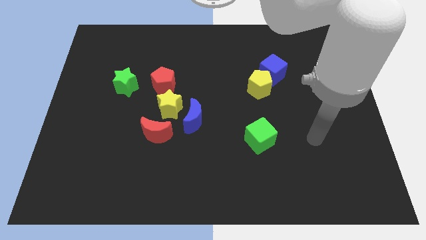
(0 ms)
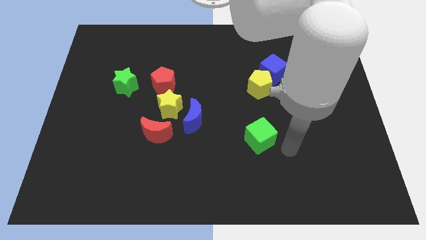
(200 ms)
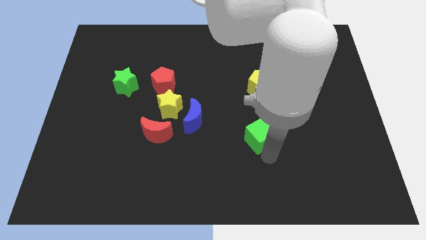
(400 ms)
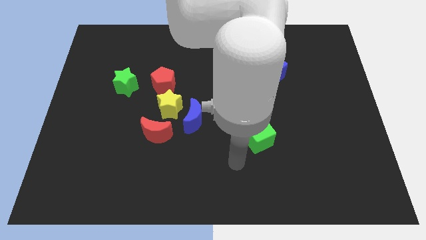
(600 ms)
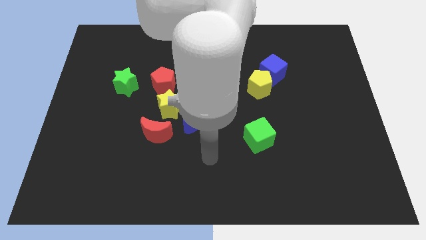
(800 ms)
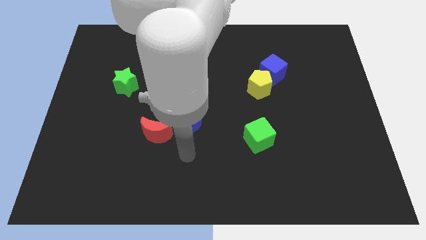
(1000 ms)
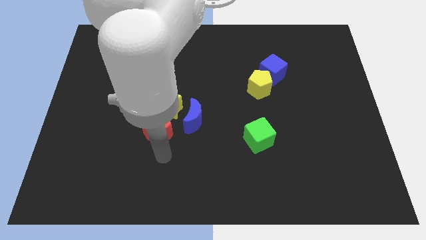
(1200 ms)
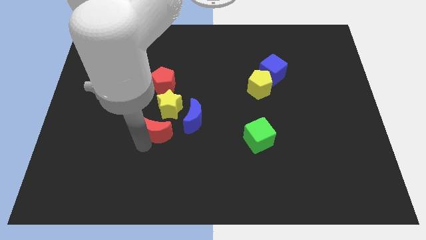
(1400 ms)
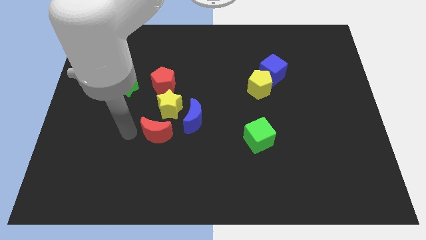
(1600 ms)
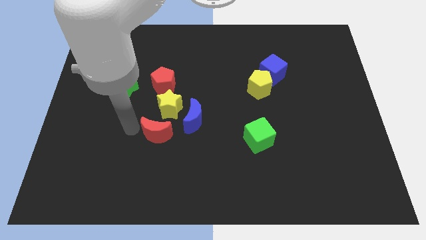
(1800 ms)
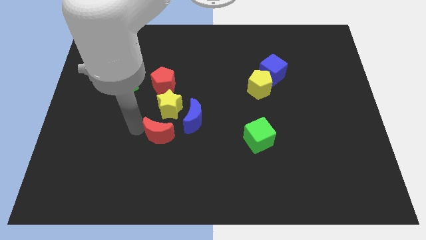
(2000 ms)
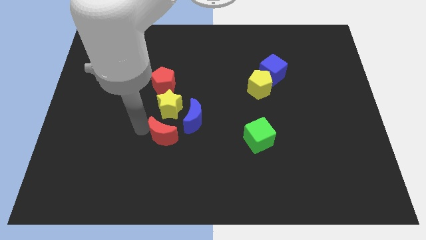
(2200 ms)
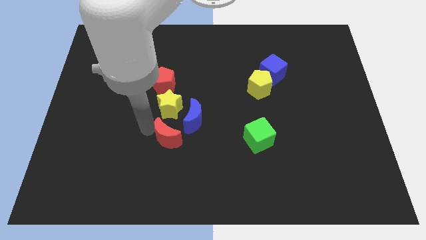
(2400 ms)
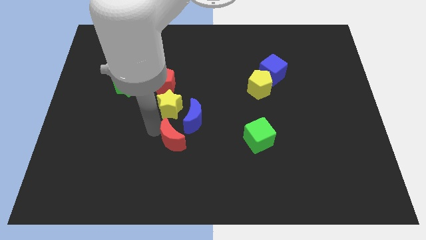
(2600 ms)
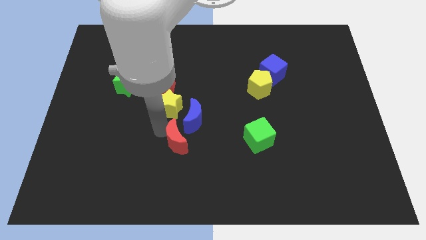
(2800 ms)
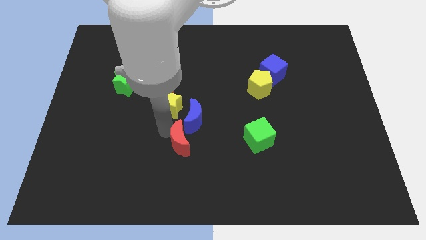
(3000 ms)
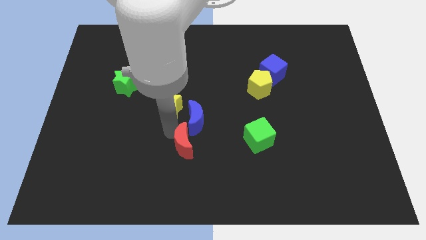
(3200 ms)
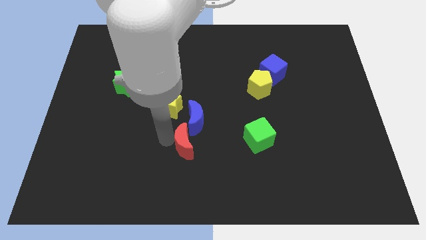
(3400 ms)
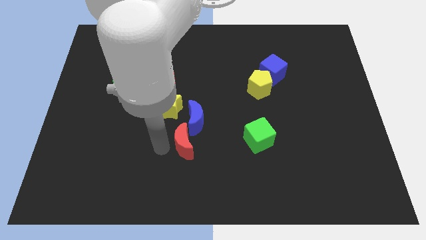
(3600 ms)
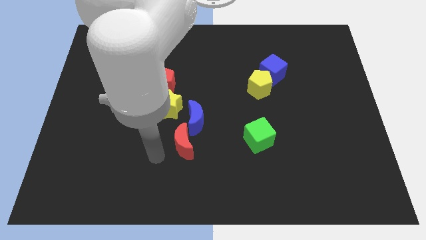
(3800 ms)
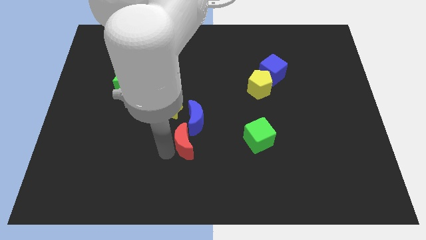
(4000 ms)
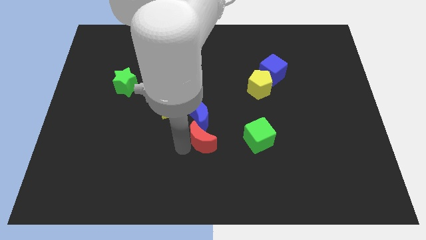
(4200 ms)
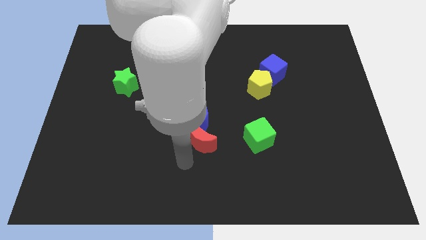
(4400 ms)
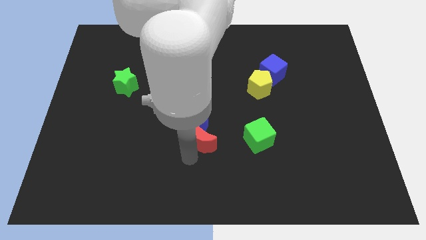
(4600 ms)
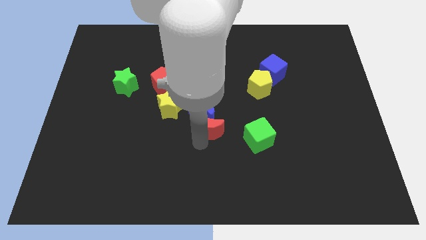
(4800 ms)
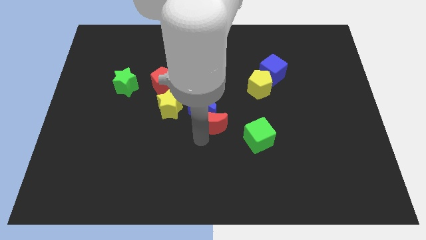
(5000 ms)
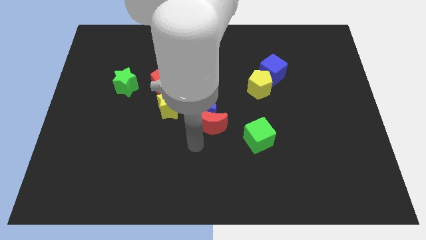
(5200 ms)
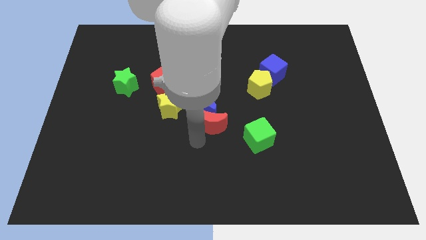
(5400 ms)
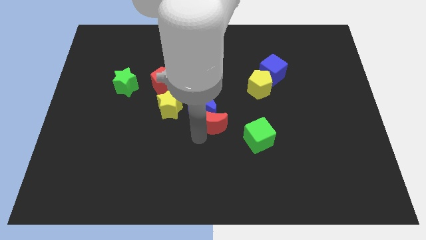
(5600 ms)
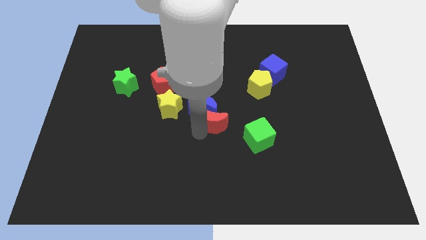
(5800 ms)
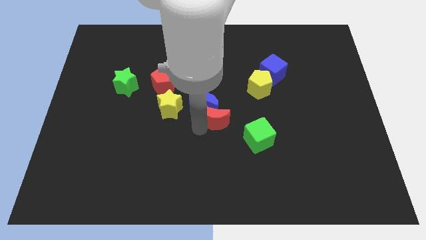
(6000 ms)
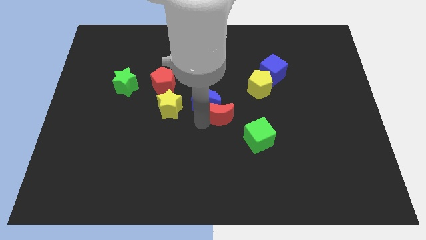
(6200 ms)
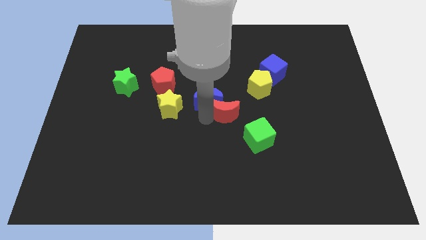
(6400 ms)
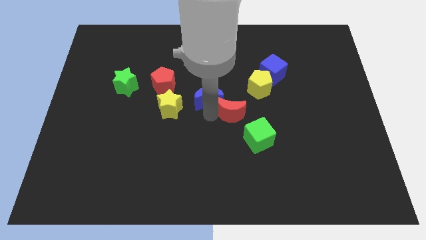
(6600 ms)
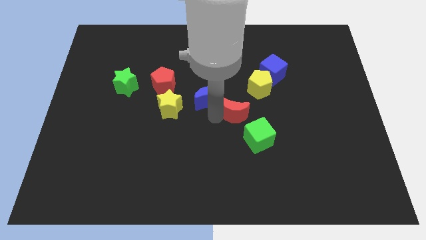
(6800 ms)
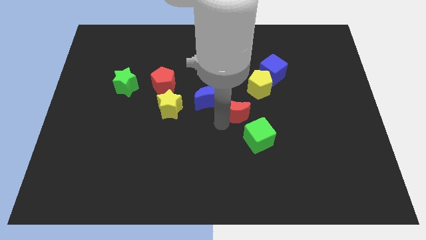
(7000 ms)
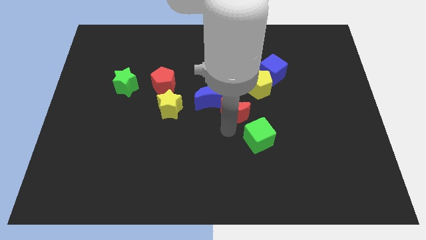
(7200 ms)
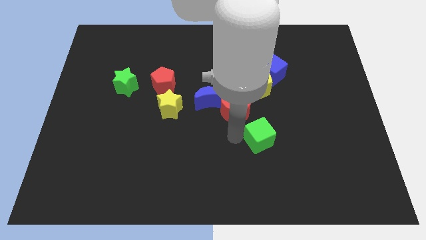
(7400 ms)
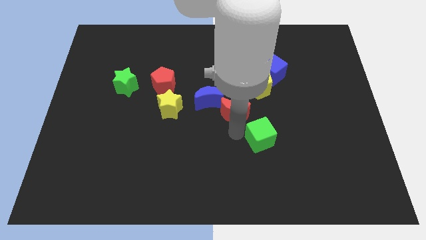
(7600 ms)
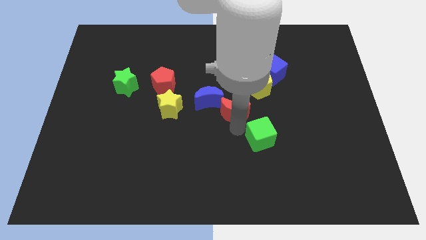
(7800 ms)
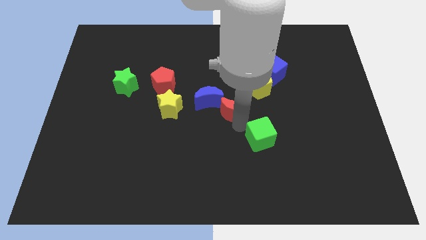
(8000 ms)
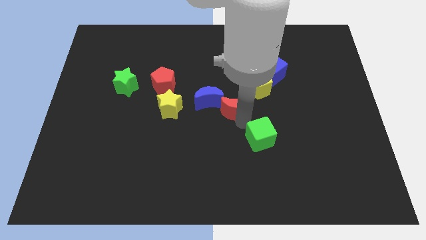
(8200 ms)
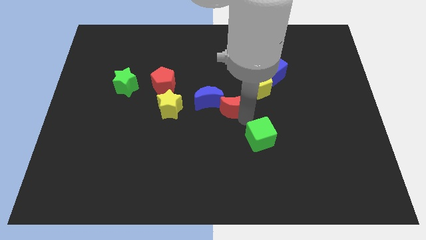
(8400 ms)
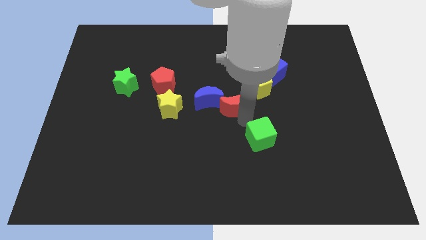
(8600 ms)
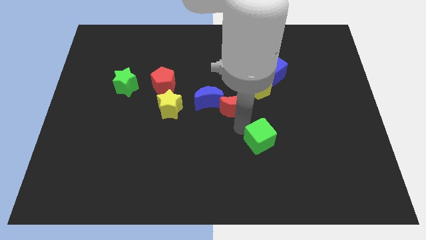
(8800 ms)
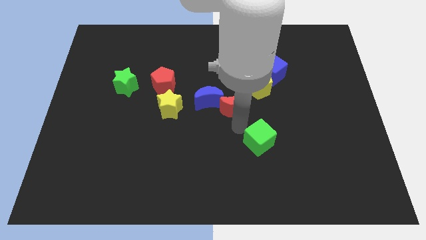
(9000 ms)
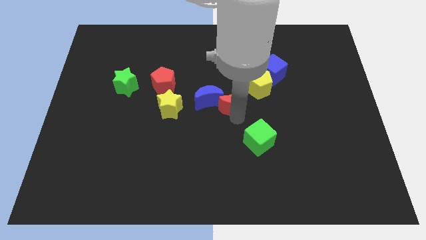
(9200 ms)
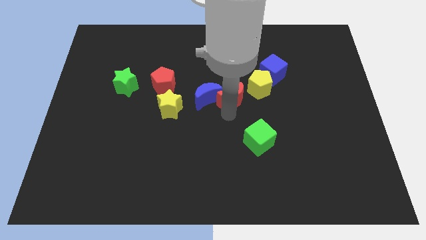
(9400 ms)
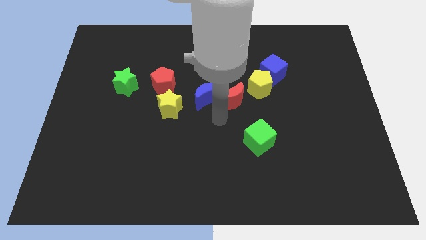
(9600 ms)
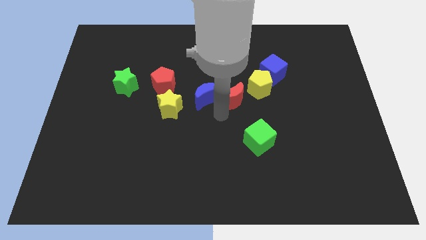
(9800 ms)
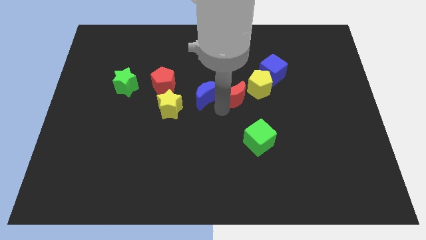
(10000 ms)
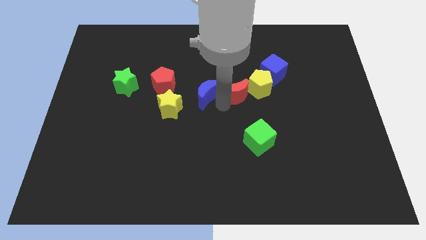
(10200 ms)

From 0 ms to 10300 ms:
push the red moon diagonally up and right

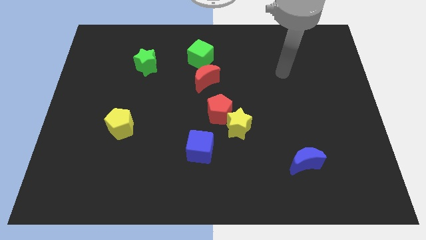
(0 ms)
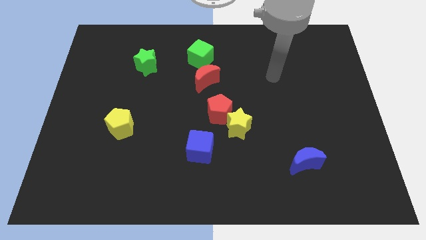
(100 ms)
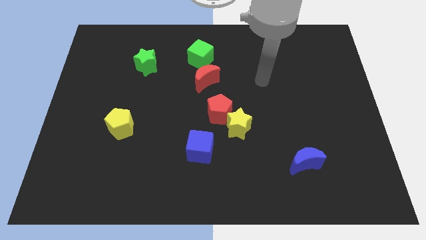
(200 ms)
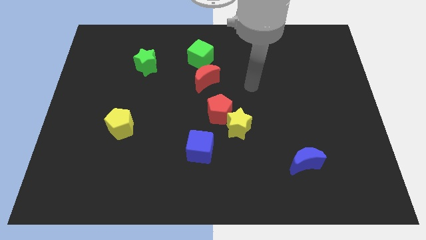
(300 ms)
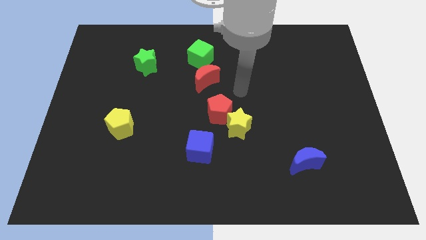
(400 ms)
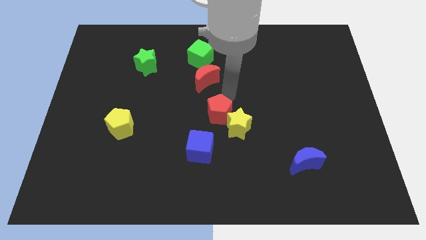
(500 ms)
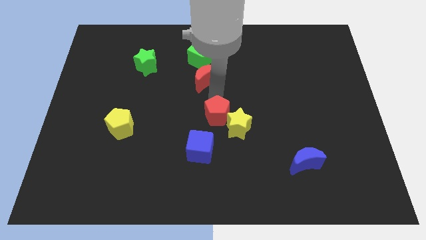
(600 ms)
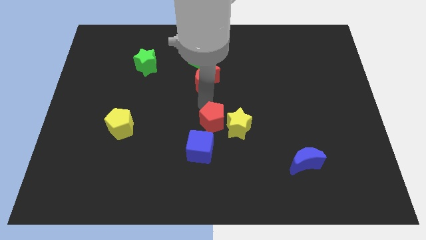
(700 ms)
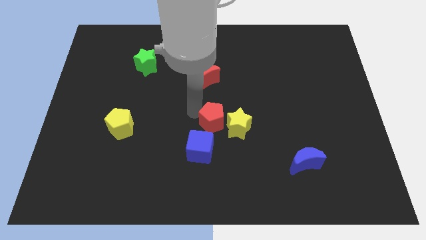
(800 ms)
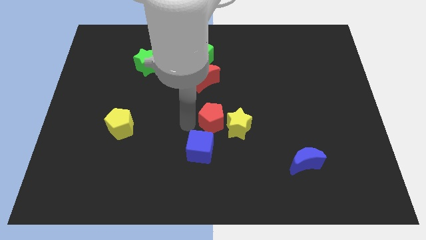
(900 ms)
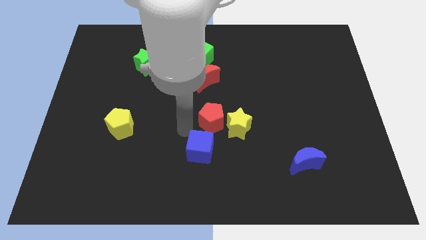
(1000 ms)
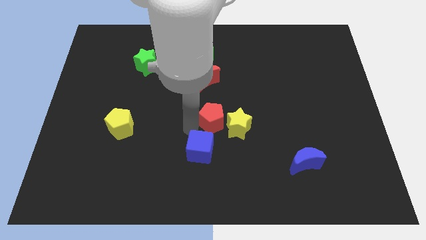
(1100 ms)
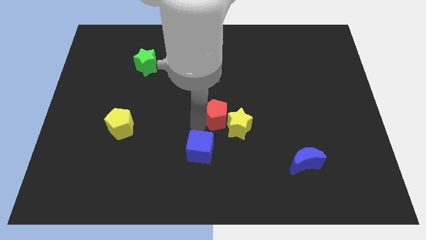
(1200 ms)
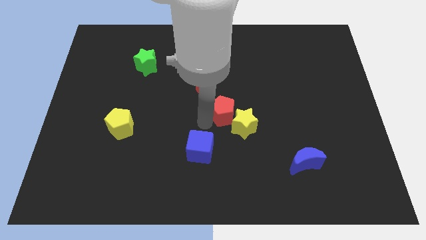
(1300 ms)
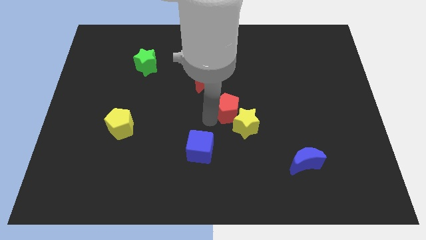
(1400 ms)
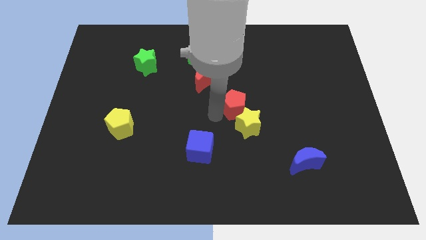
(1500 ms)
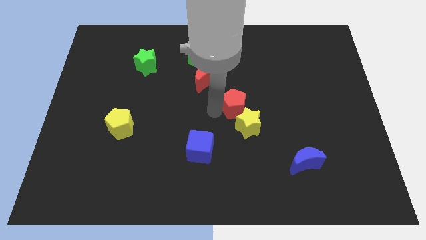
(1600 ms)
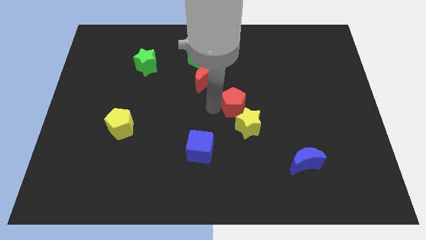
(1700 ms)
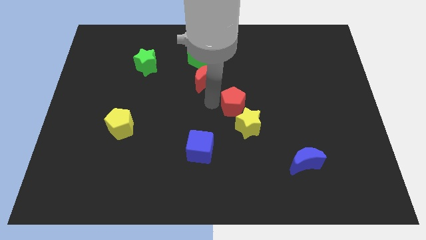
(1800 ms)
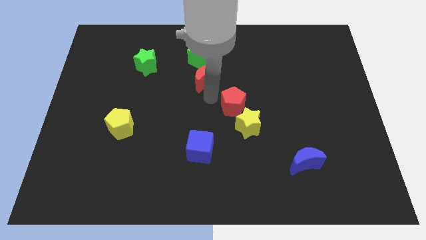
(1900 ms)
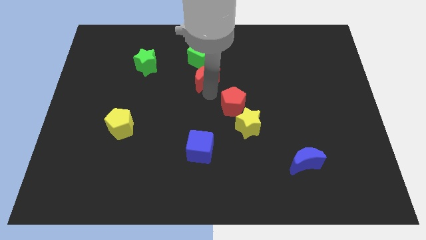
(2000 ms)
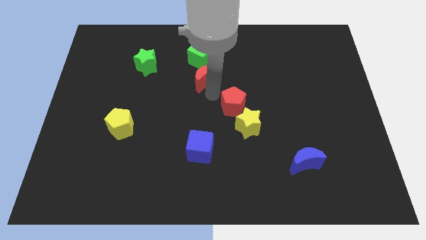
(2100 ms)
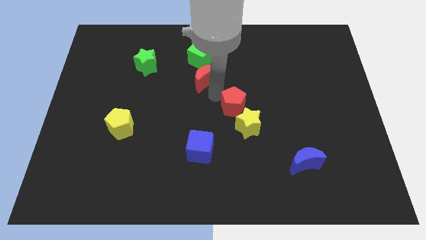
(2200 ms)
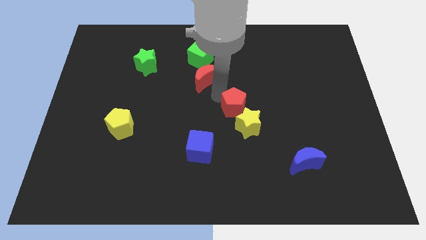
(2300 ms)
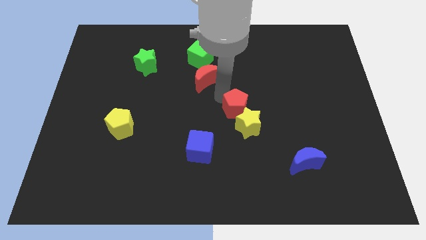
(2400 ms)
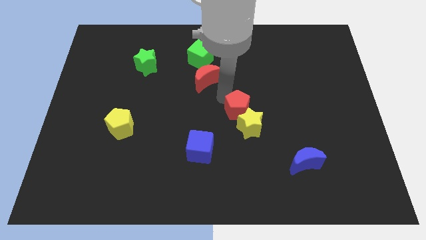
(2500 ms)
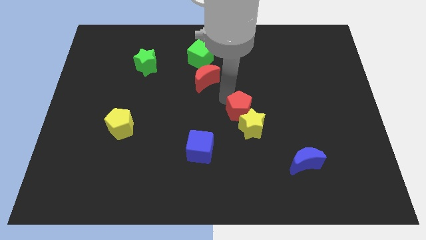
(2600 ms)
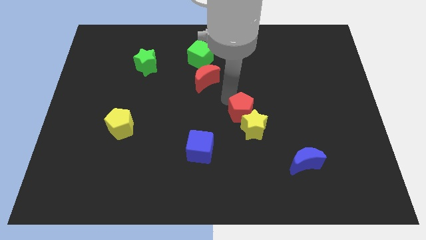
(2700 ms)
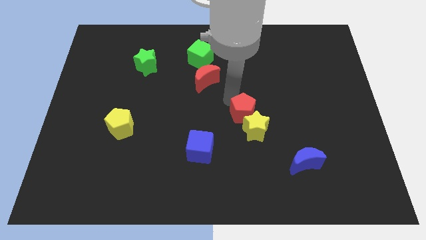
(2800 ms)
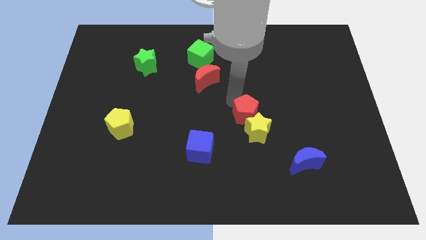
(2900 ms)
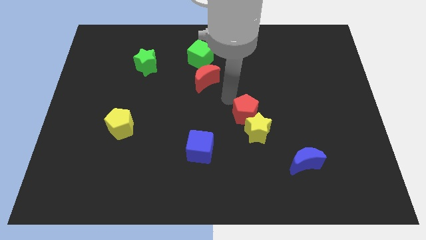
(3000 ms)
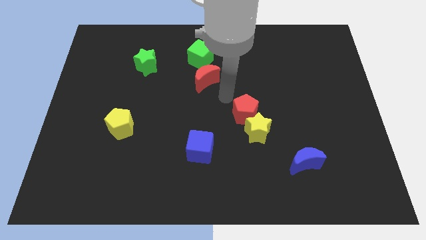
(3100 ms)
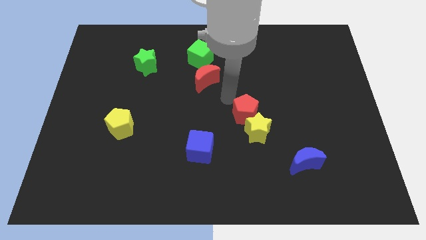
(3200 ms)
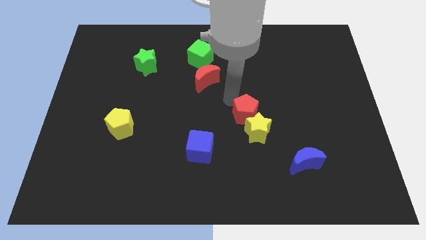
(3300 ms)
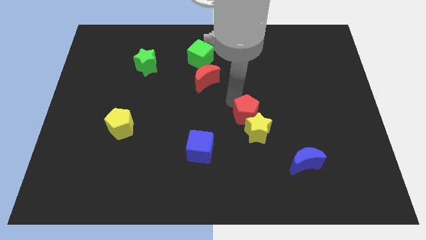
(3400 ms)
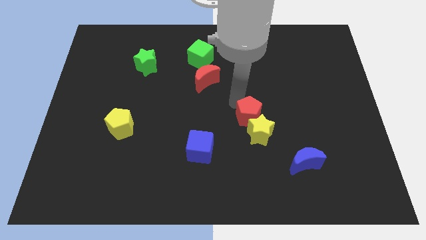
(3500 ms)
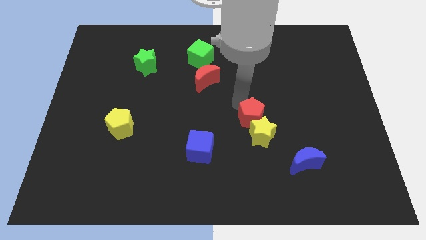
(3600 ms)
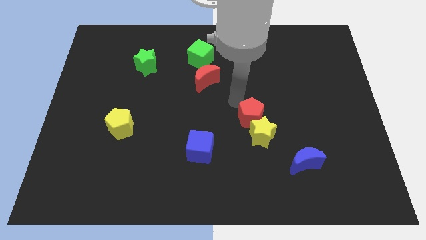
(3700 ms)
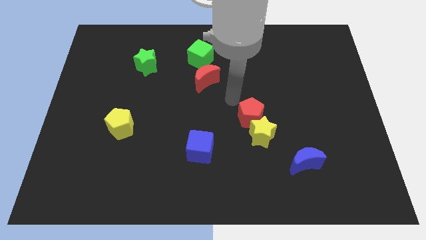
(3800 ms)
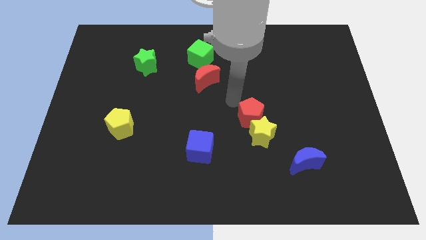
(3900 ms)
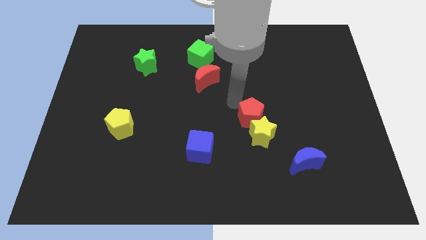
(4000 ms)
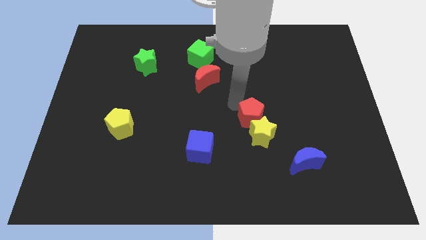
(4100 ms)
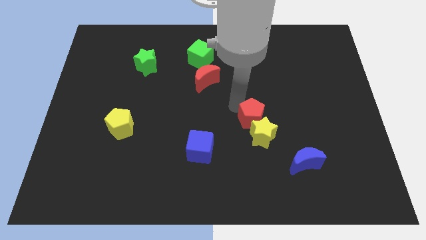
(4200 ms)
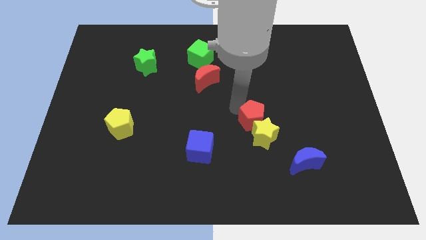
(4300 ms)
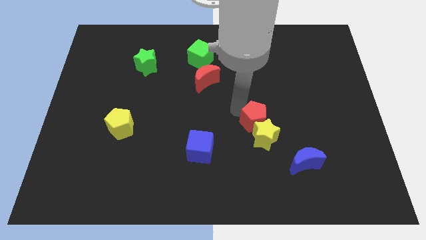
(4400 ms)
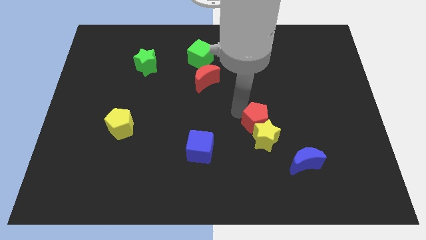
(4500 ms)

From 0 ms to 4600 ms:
slightly move the red pentagon diagonally downwards and right
